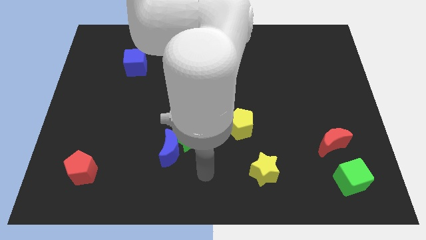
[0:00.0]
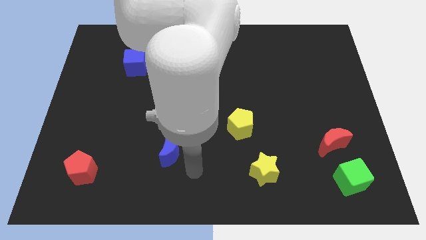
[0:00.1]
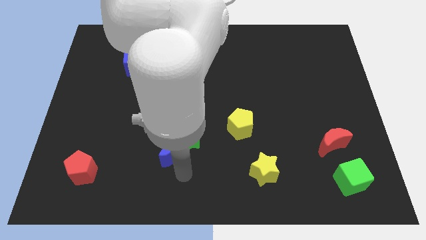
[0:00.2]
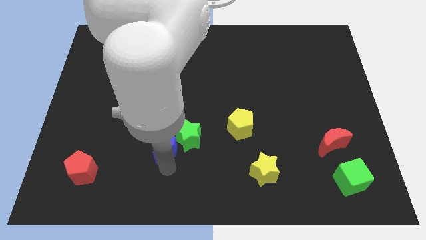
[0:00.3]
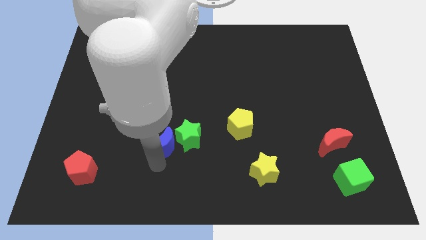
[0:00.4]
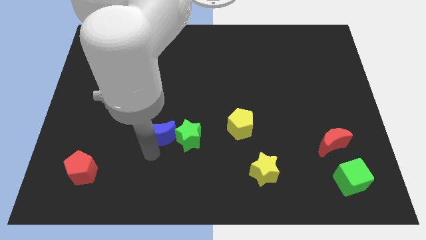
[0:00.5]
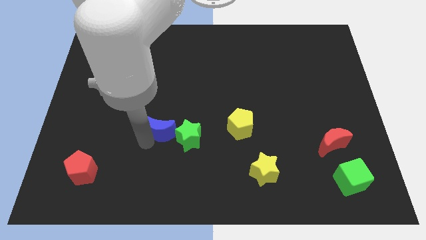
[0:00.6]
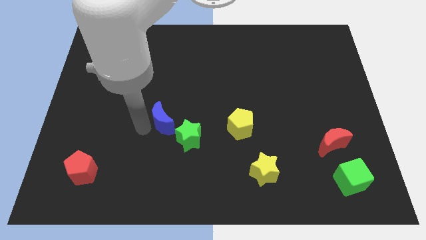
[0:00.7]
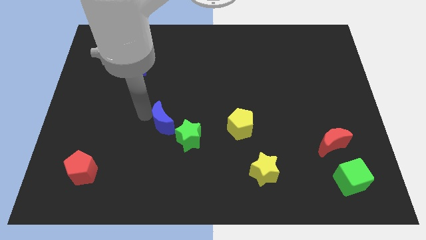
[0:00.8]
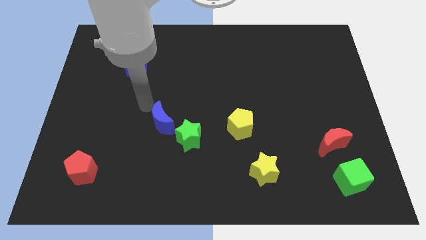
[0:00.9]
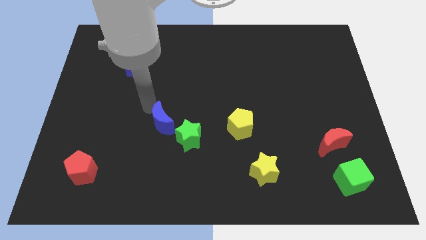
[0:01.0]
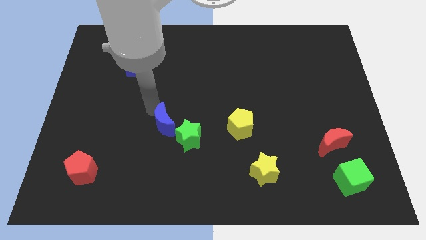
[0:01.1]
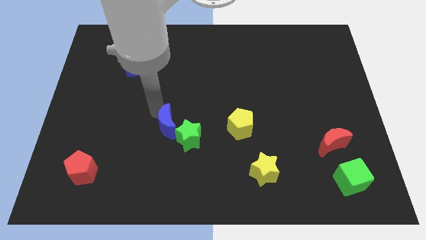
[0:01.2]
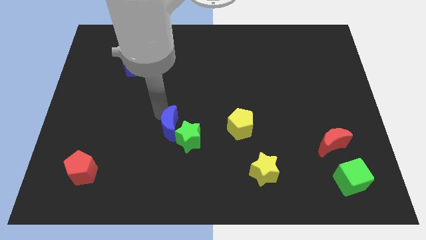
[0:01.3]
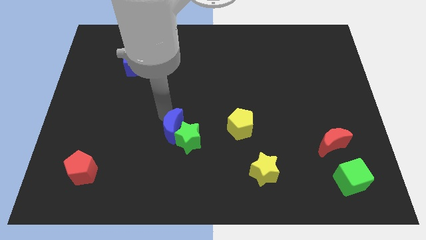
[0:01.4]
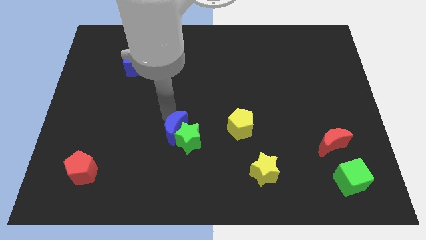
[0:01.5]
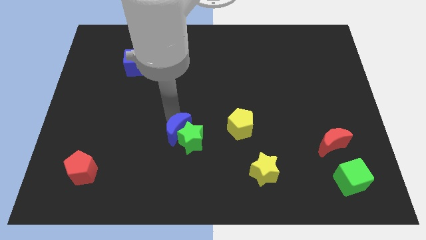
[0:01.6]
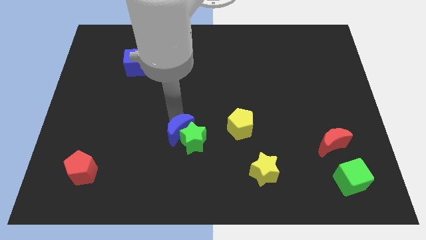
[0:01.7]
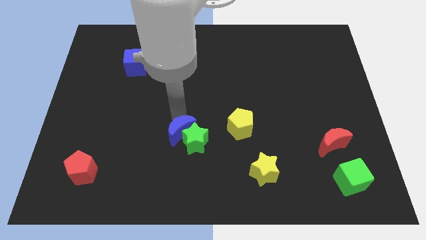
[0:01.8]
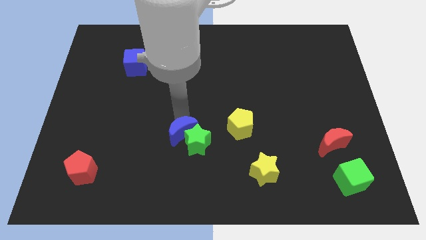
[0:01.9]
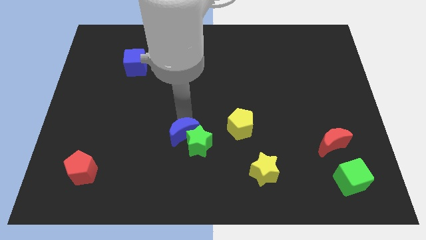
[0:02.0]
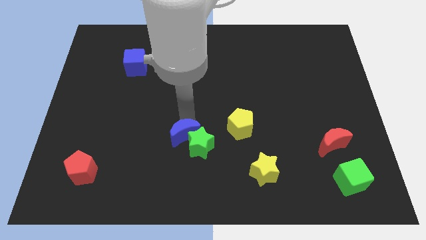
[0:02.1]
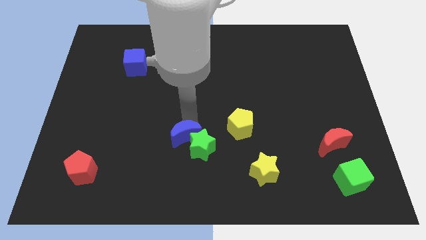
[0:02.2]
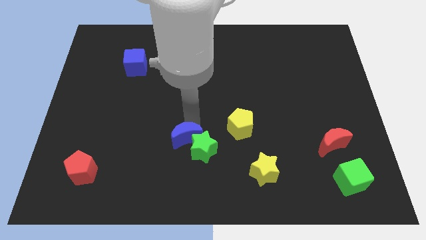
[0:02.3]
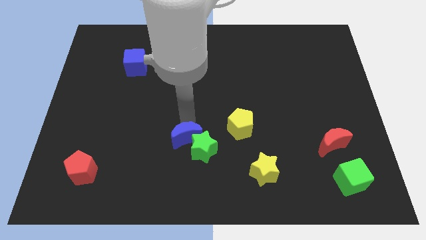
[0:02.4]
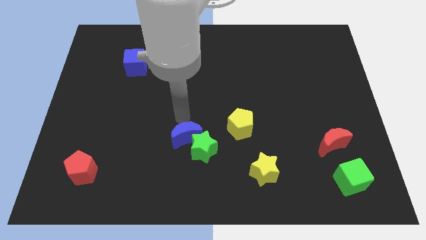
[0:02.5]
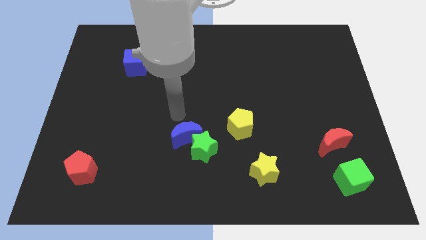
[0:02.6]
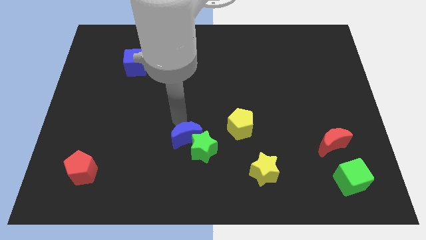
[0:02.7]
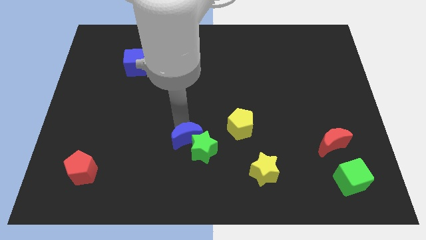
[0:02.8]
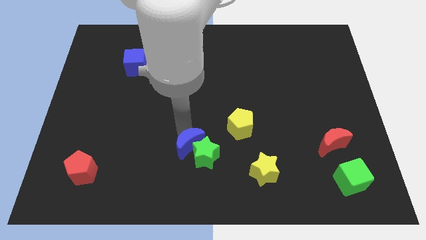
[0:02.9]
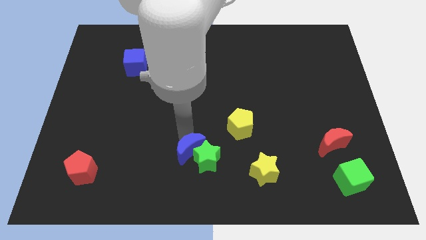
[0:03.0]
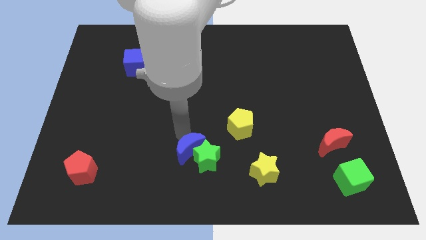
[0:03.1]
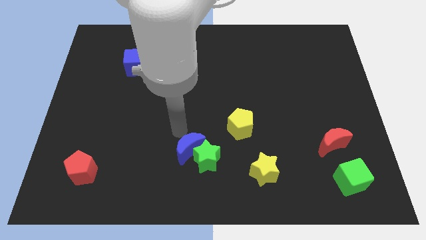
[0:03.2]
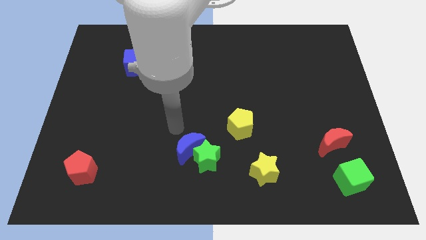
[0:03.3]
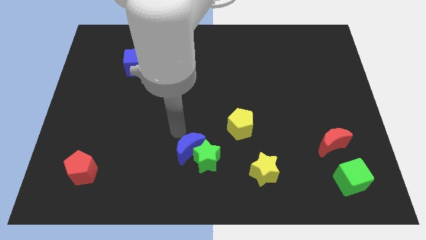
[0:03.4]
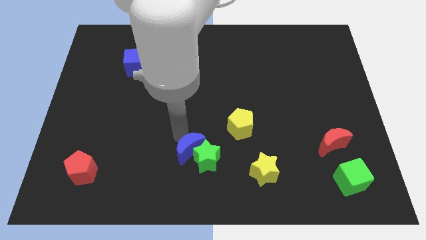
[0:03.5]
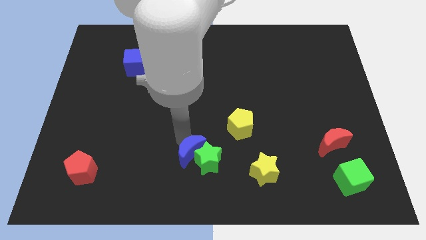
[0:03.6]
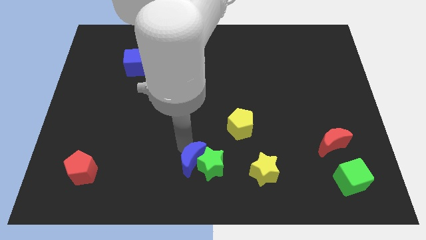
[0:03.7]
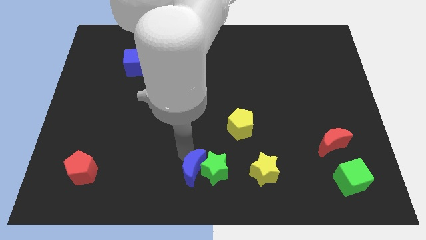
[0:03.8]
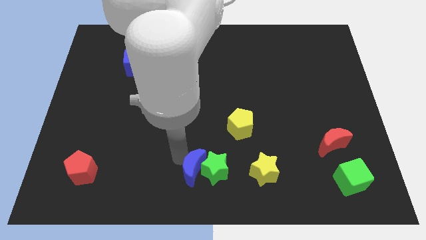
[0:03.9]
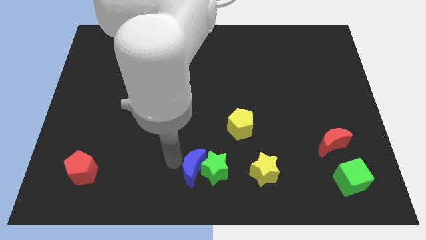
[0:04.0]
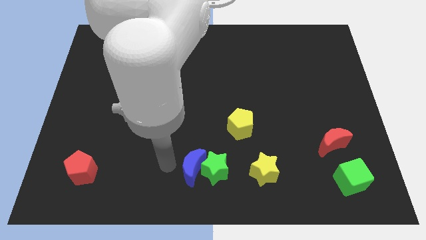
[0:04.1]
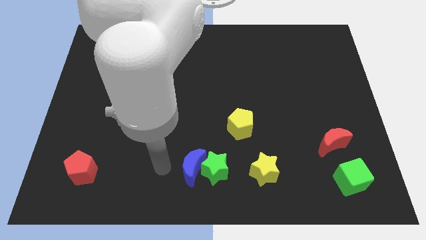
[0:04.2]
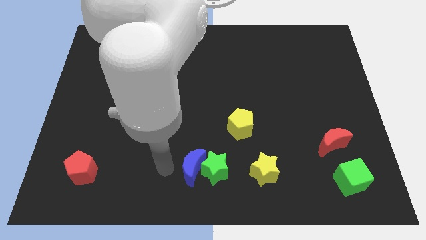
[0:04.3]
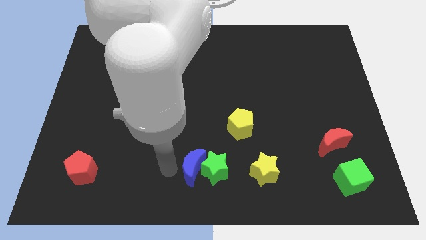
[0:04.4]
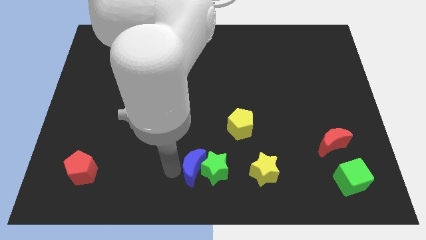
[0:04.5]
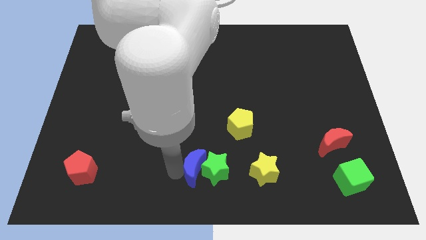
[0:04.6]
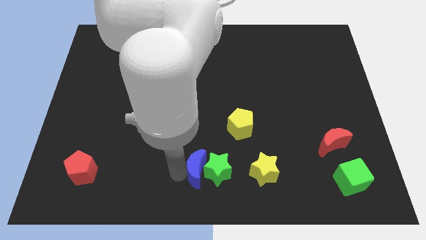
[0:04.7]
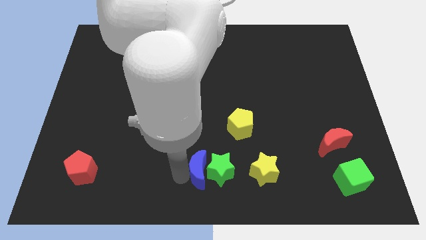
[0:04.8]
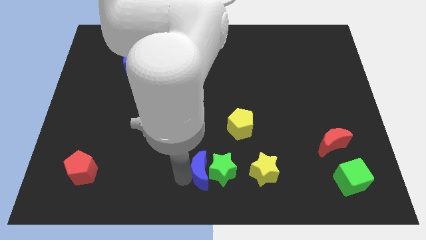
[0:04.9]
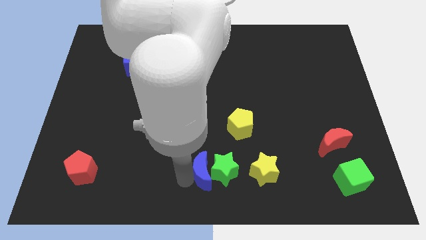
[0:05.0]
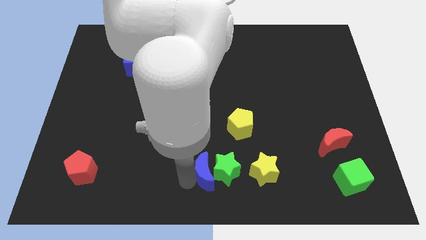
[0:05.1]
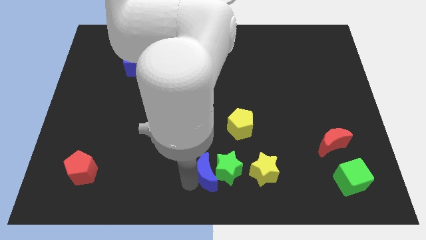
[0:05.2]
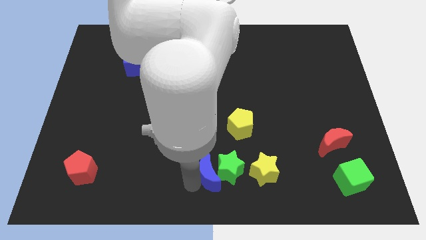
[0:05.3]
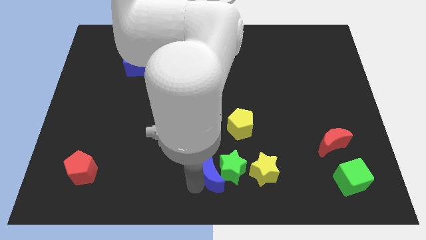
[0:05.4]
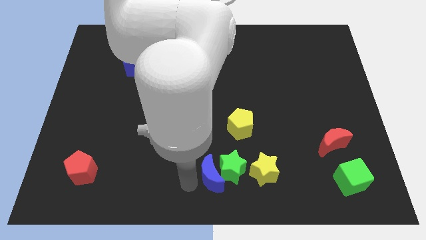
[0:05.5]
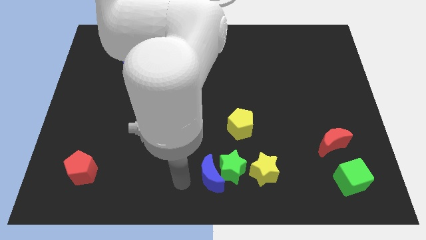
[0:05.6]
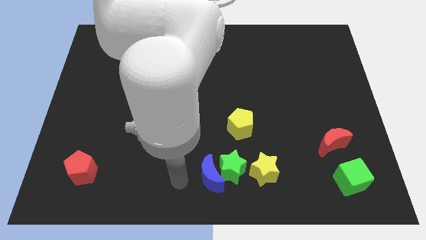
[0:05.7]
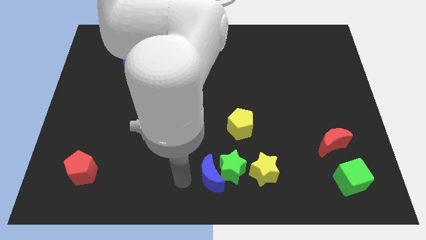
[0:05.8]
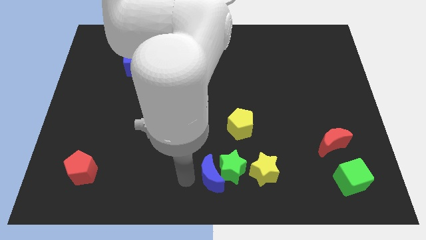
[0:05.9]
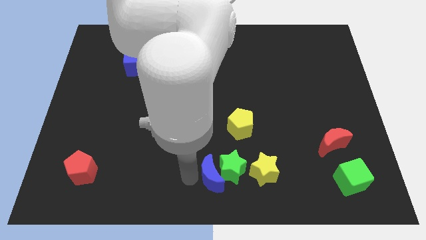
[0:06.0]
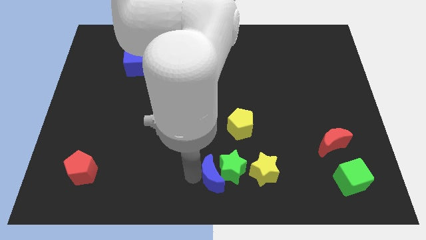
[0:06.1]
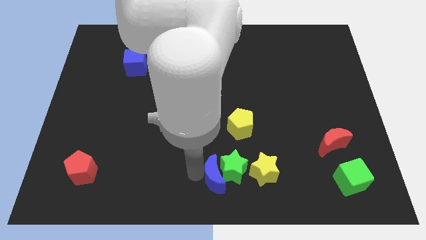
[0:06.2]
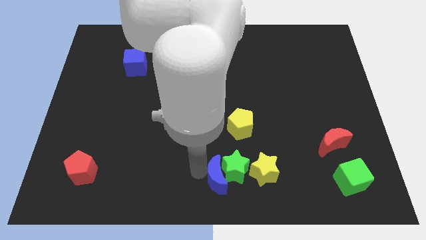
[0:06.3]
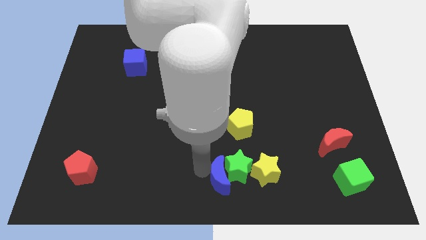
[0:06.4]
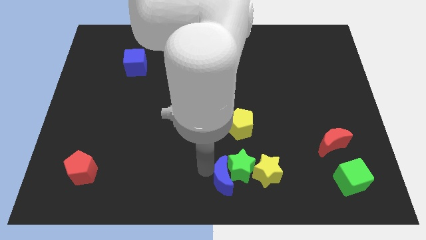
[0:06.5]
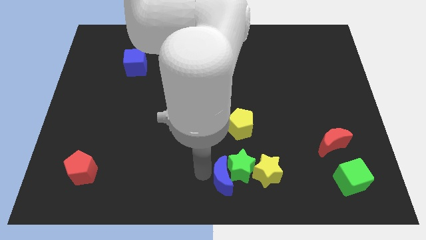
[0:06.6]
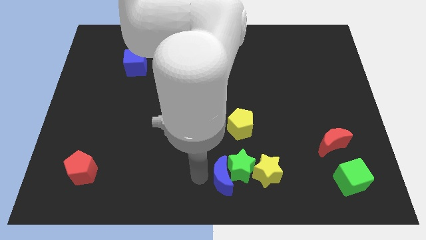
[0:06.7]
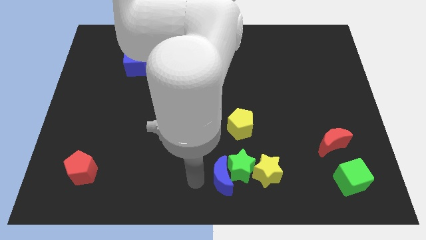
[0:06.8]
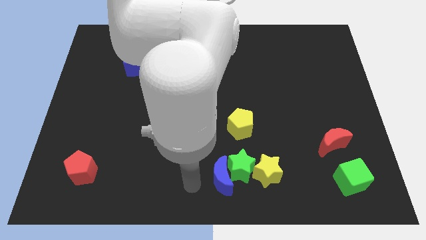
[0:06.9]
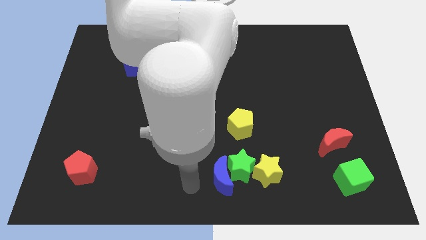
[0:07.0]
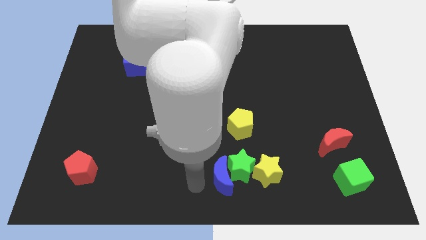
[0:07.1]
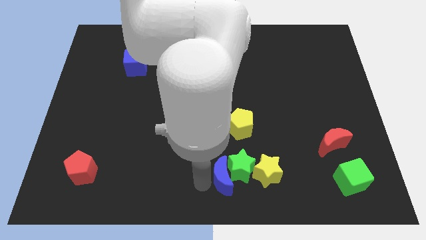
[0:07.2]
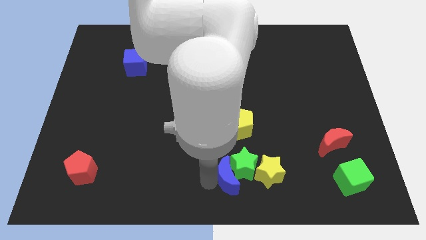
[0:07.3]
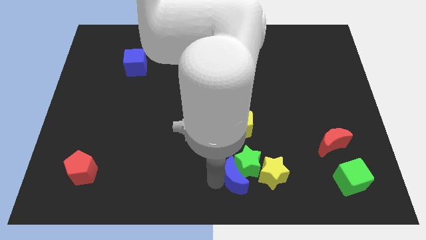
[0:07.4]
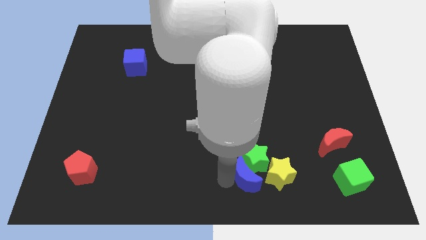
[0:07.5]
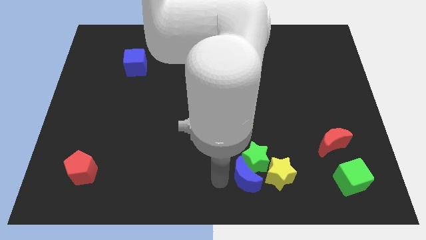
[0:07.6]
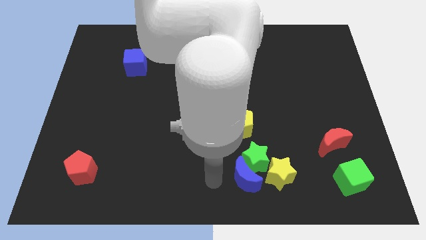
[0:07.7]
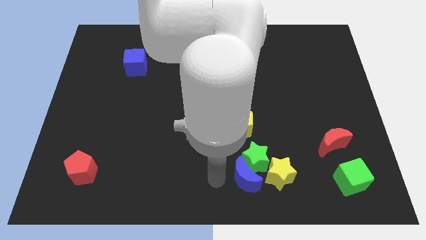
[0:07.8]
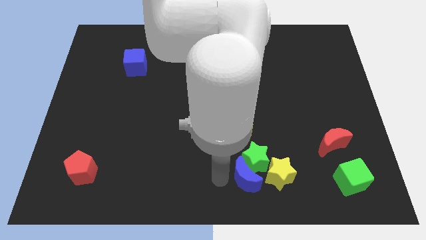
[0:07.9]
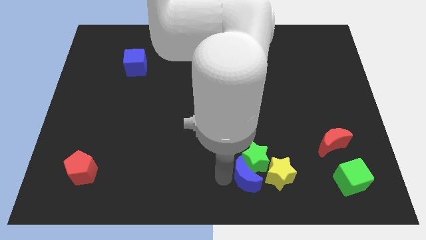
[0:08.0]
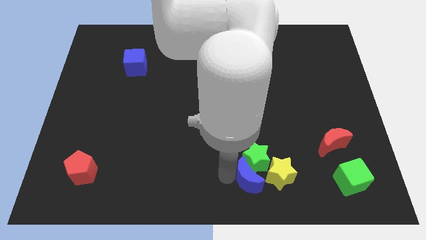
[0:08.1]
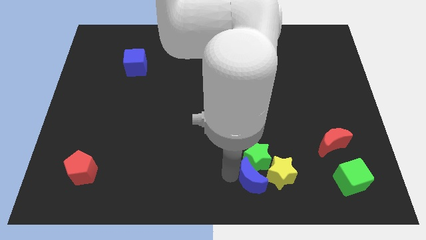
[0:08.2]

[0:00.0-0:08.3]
put the blue moon close to the yellow star
